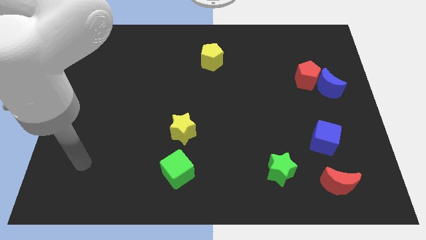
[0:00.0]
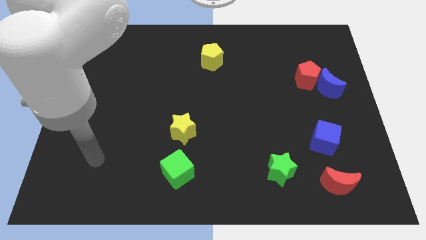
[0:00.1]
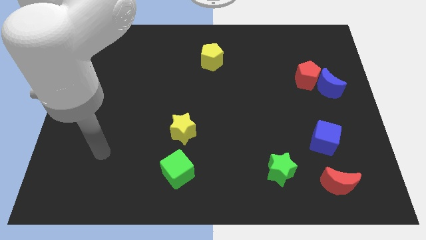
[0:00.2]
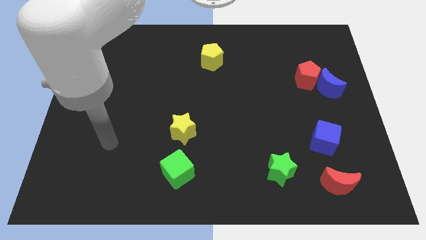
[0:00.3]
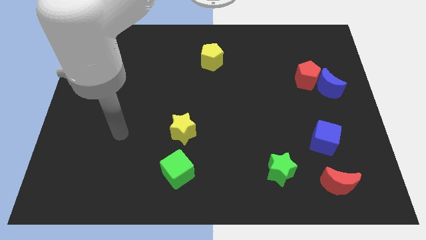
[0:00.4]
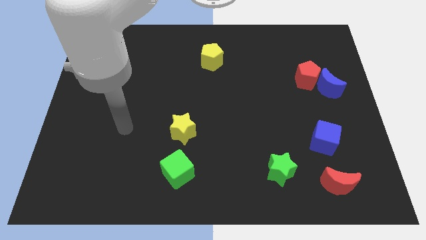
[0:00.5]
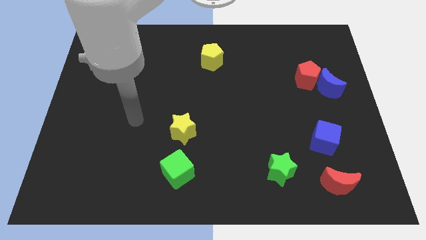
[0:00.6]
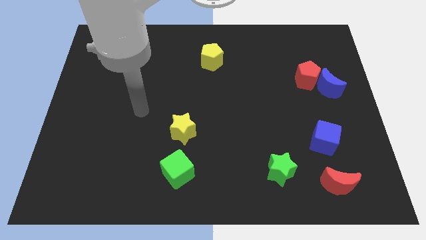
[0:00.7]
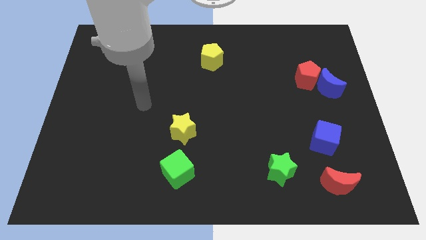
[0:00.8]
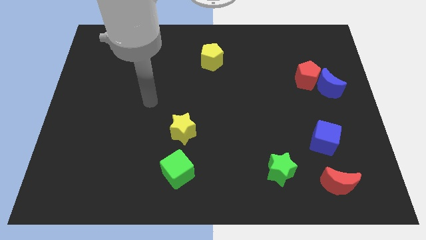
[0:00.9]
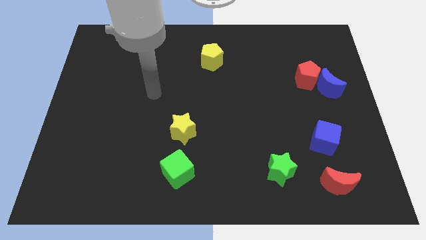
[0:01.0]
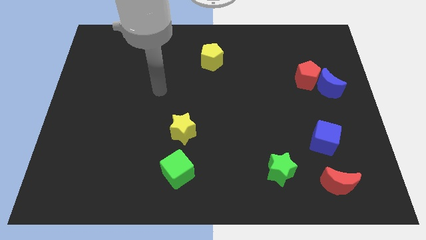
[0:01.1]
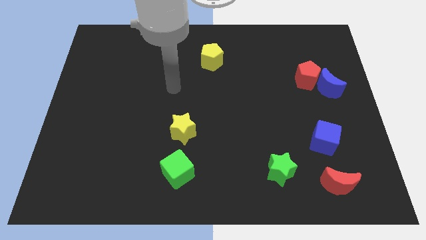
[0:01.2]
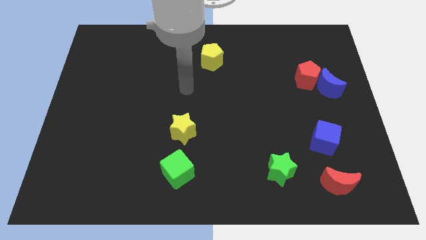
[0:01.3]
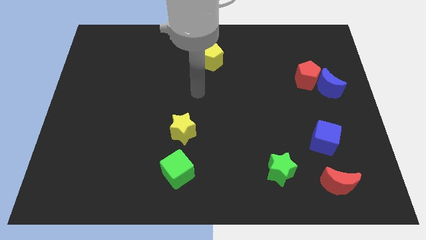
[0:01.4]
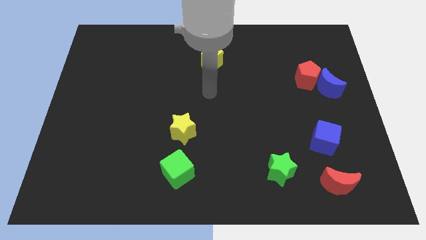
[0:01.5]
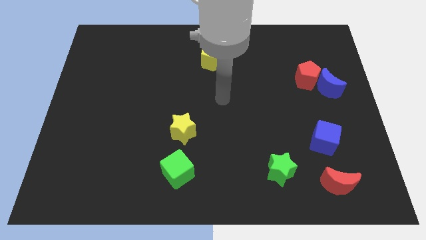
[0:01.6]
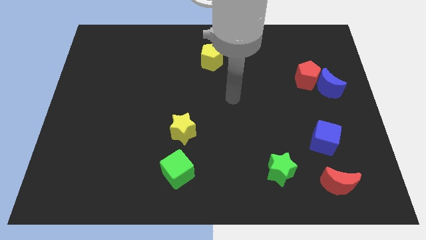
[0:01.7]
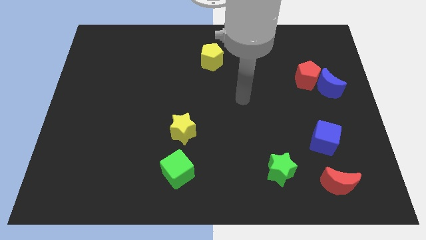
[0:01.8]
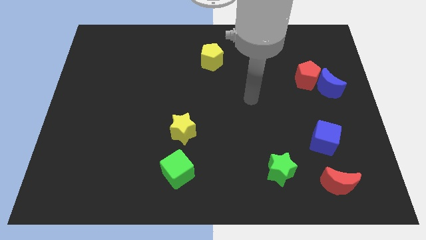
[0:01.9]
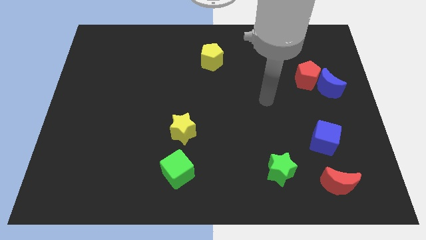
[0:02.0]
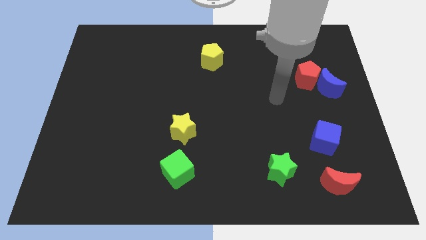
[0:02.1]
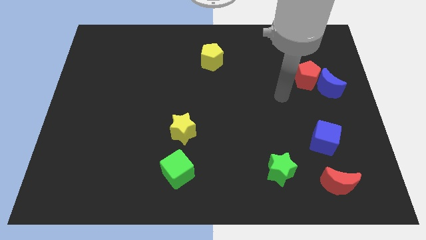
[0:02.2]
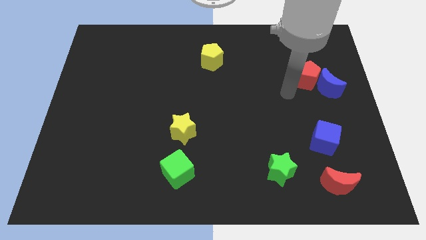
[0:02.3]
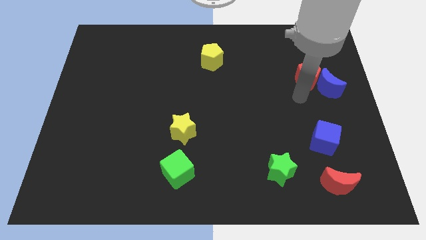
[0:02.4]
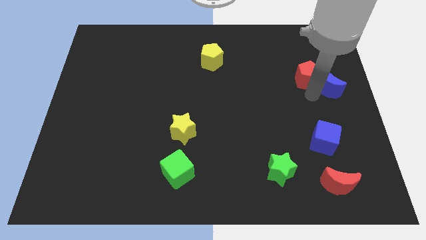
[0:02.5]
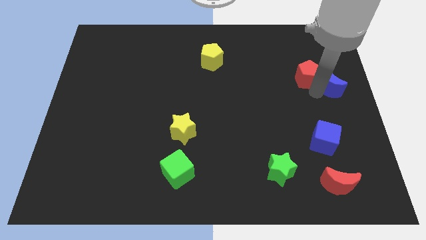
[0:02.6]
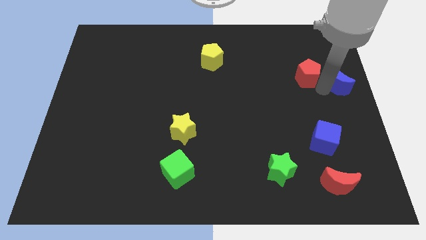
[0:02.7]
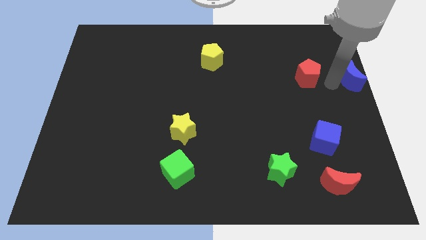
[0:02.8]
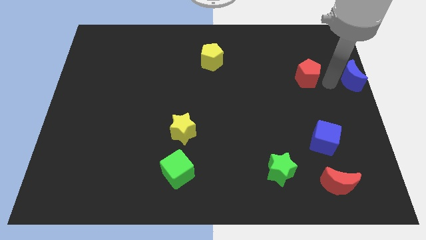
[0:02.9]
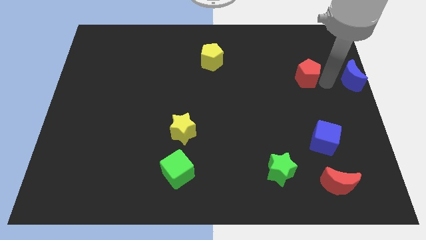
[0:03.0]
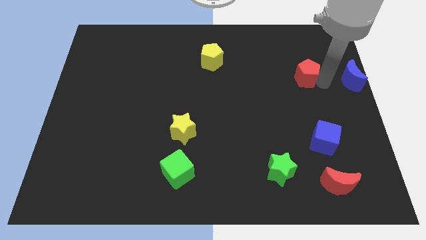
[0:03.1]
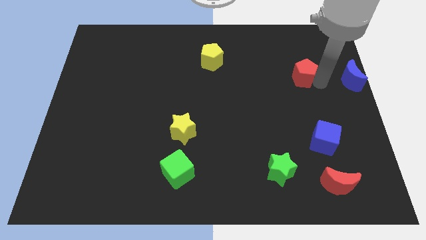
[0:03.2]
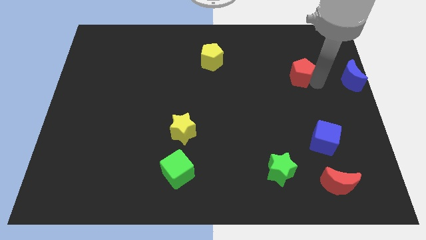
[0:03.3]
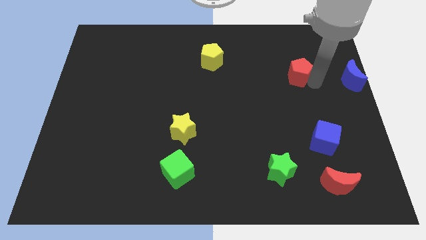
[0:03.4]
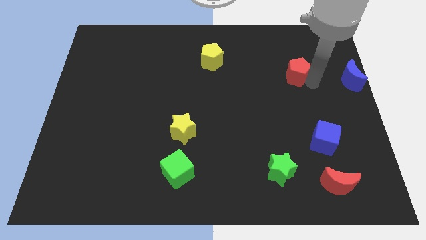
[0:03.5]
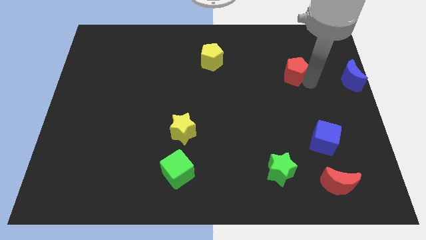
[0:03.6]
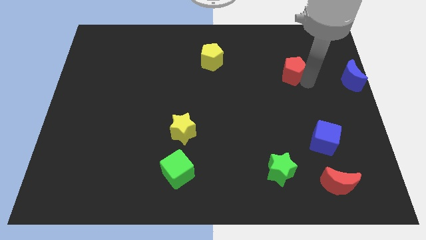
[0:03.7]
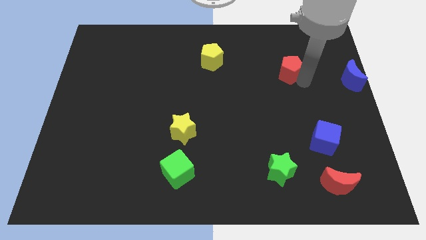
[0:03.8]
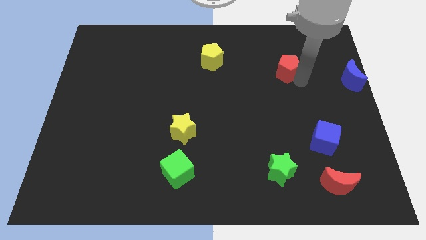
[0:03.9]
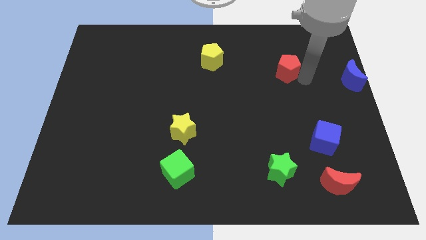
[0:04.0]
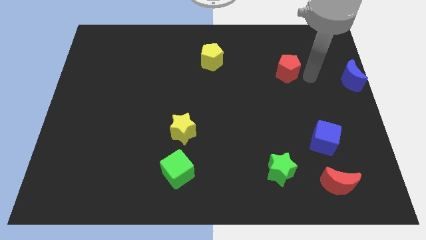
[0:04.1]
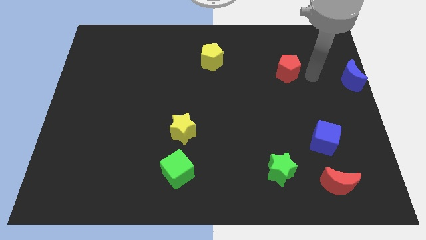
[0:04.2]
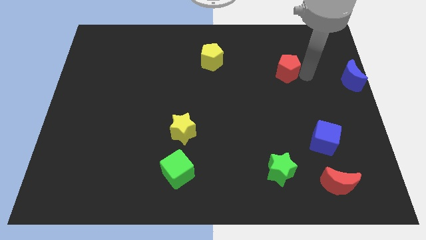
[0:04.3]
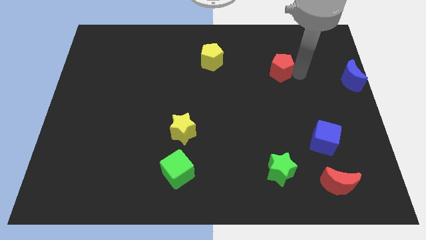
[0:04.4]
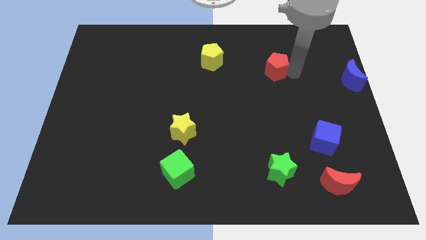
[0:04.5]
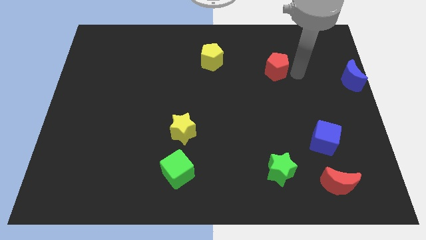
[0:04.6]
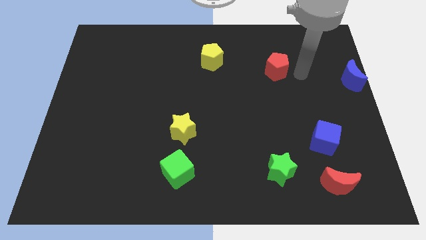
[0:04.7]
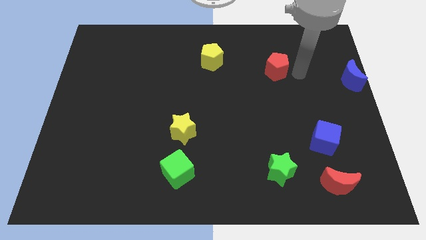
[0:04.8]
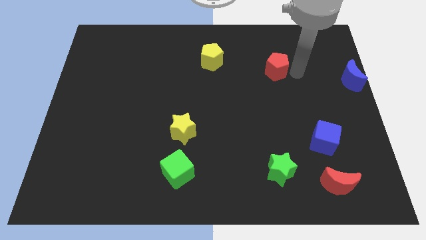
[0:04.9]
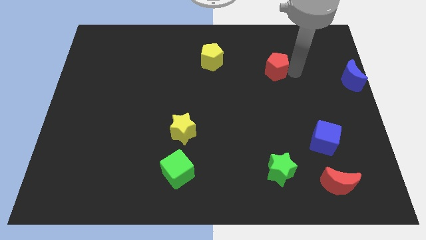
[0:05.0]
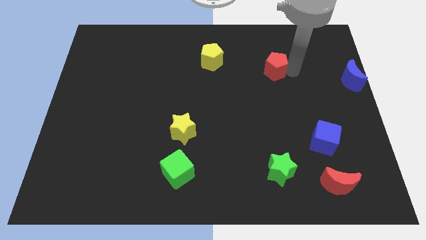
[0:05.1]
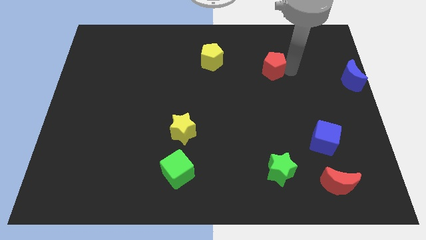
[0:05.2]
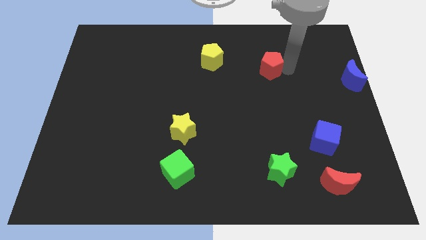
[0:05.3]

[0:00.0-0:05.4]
move the red pentagon right of the yellow pentagon

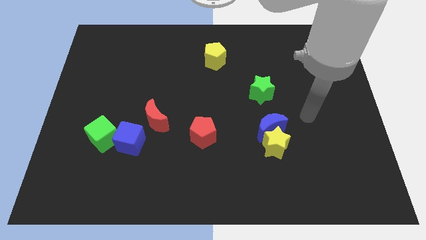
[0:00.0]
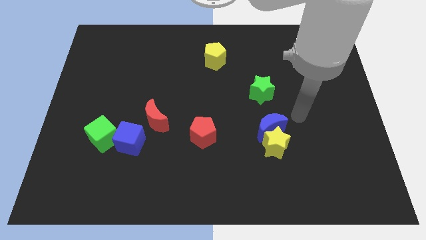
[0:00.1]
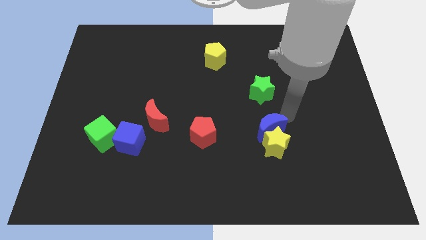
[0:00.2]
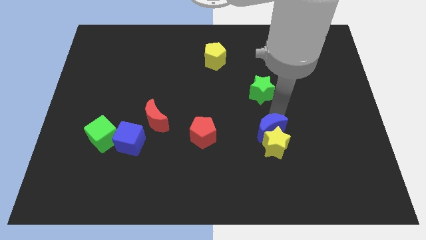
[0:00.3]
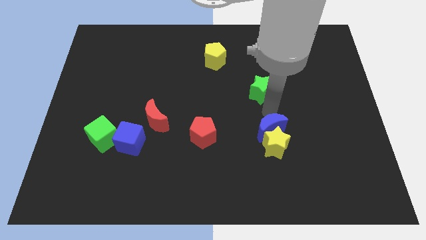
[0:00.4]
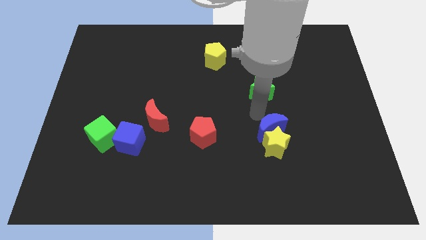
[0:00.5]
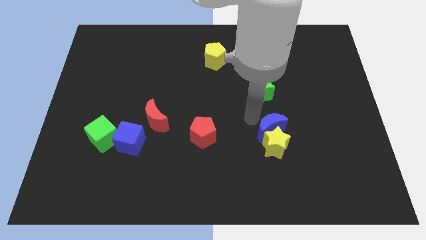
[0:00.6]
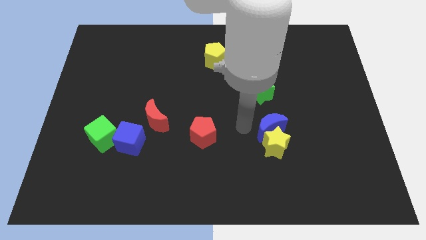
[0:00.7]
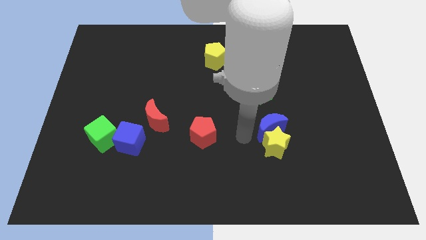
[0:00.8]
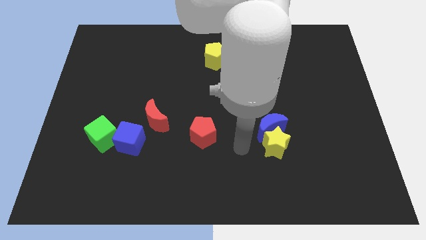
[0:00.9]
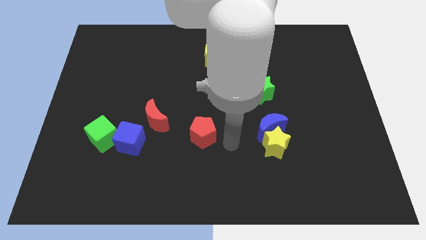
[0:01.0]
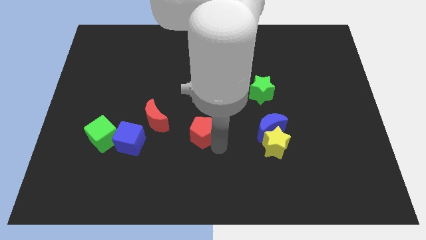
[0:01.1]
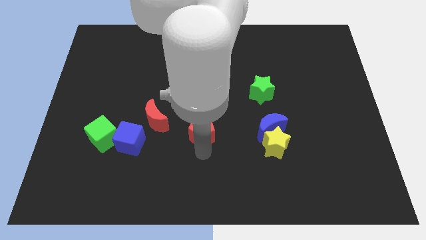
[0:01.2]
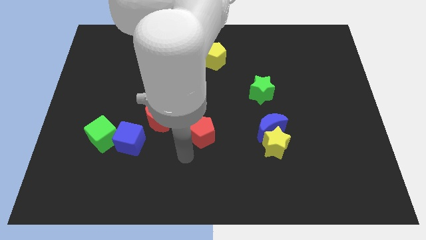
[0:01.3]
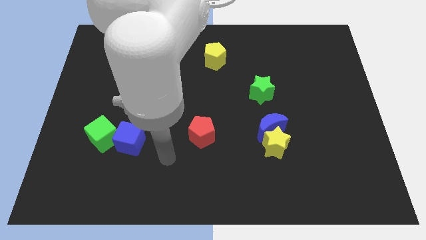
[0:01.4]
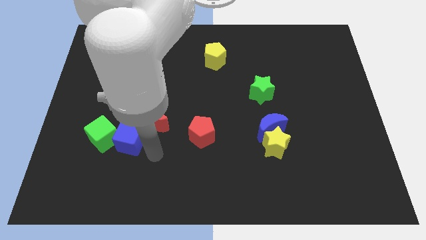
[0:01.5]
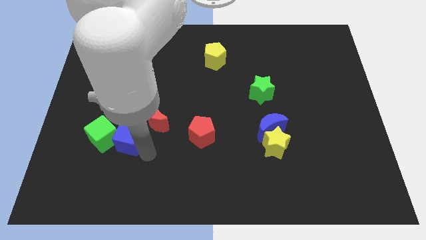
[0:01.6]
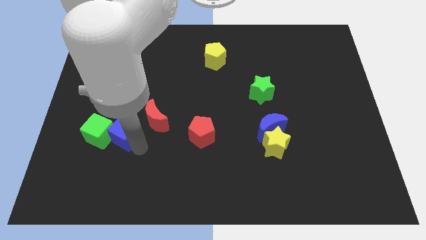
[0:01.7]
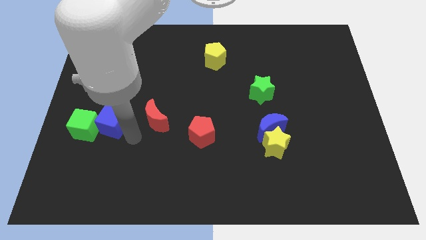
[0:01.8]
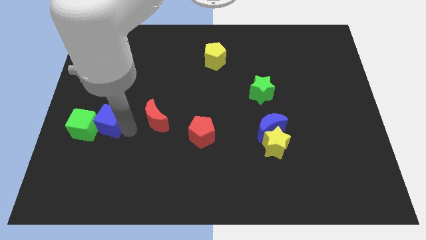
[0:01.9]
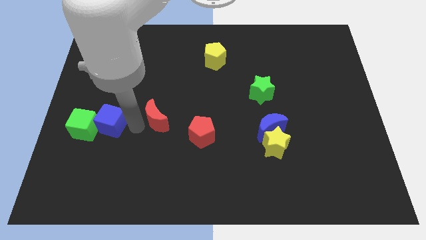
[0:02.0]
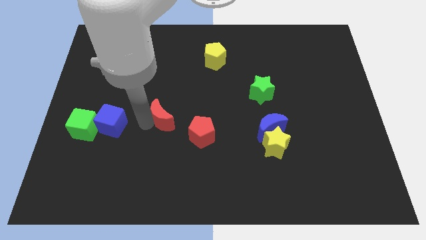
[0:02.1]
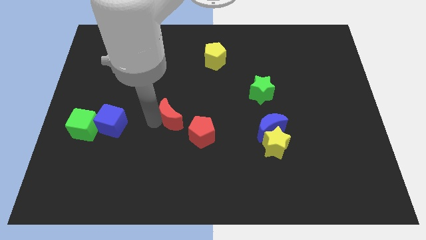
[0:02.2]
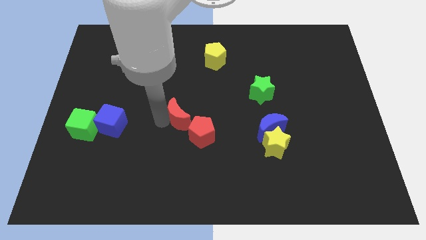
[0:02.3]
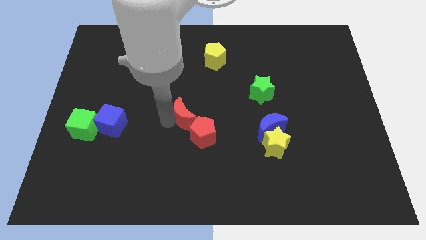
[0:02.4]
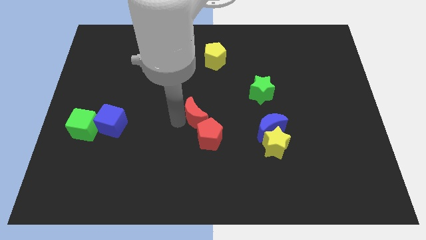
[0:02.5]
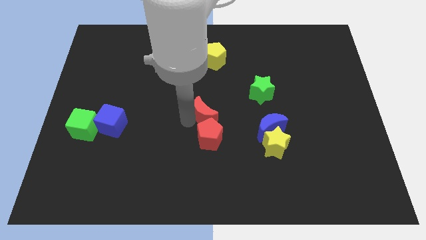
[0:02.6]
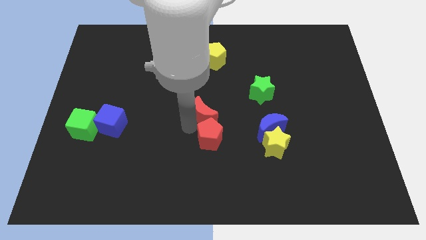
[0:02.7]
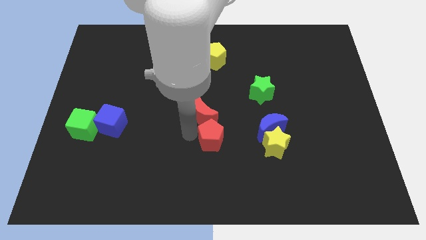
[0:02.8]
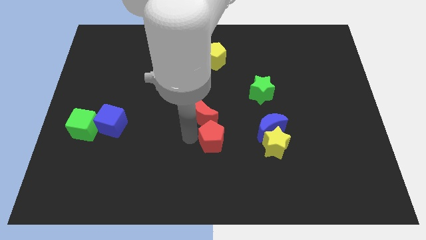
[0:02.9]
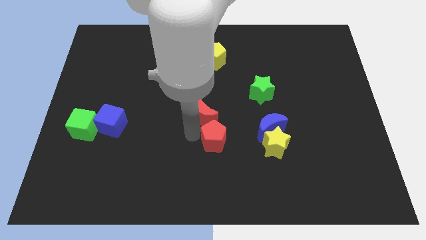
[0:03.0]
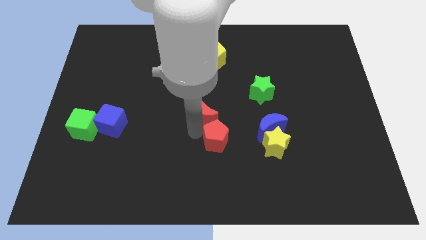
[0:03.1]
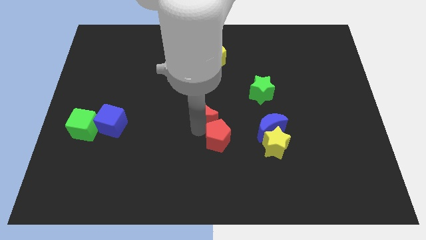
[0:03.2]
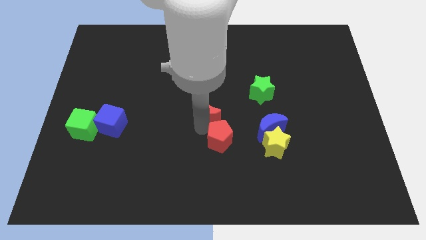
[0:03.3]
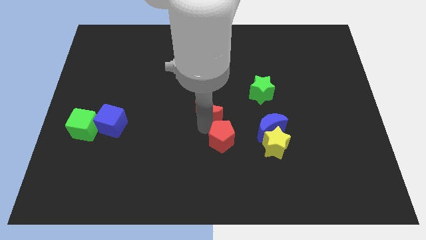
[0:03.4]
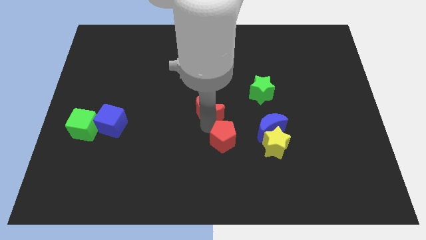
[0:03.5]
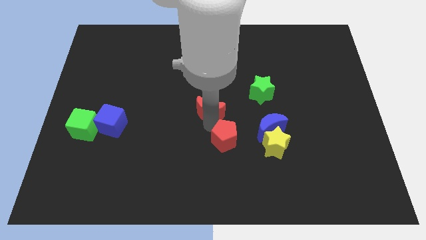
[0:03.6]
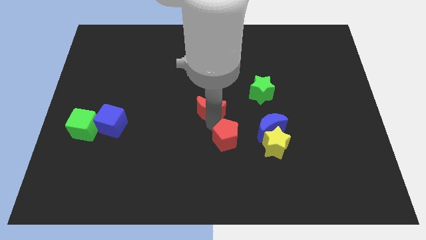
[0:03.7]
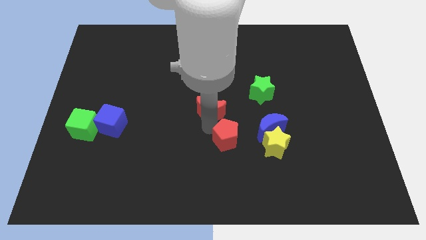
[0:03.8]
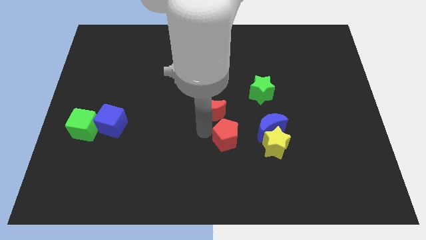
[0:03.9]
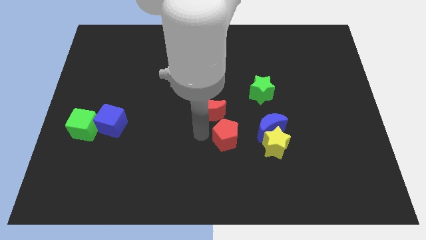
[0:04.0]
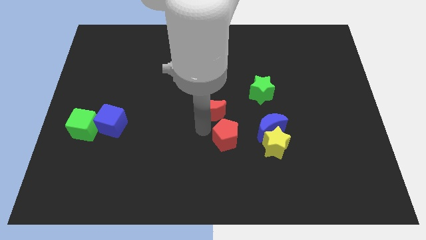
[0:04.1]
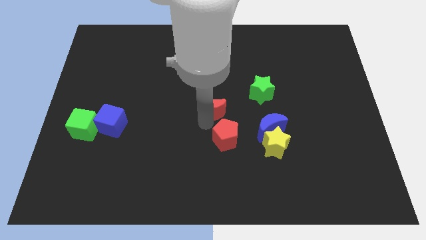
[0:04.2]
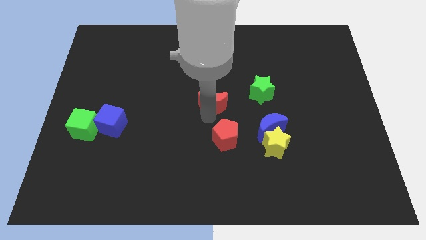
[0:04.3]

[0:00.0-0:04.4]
move the red moon left of the green star
